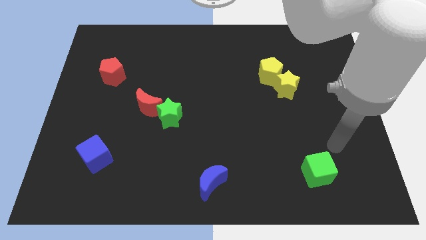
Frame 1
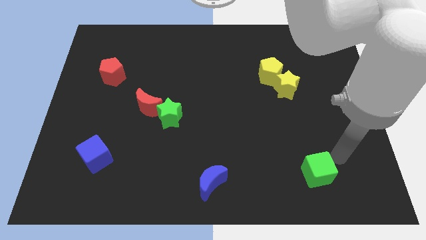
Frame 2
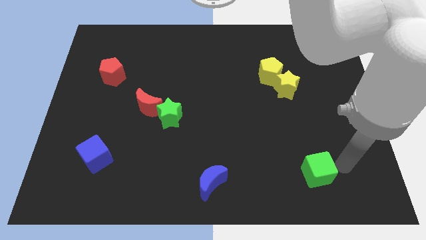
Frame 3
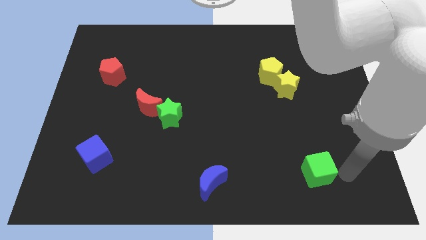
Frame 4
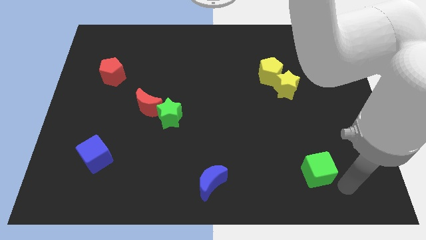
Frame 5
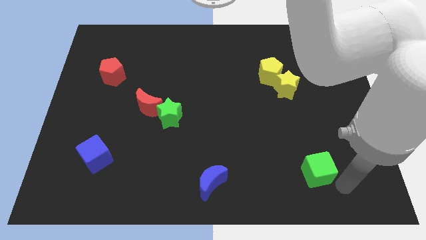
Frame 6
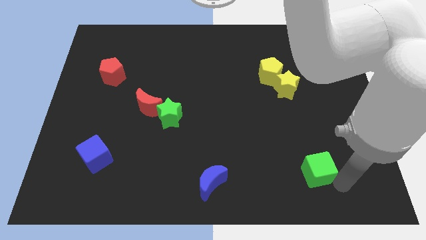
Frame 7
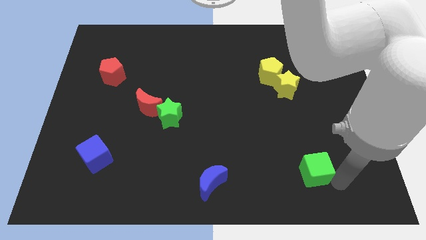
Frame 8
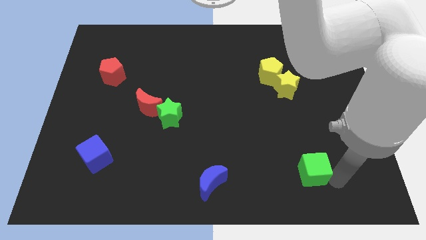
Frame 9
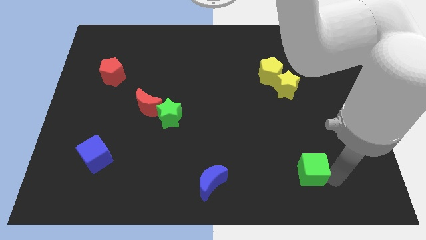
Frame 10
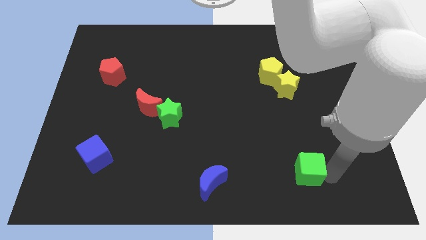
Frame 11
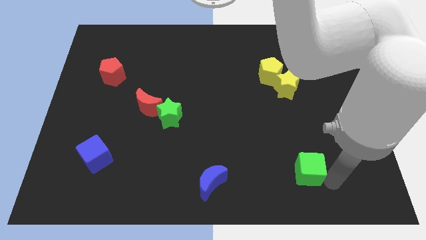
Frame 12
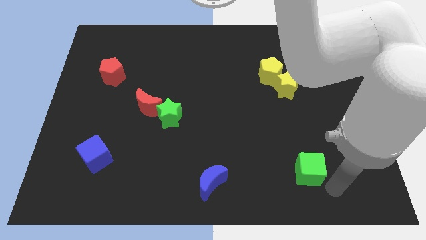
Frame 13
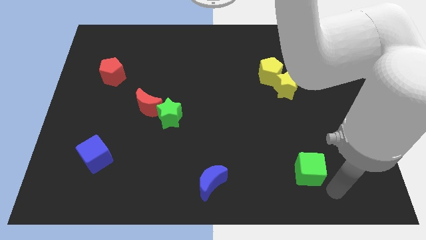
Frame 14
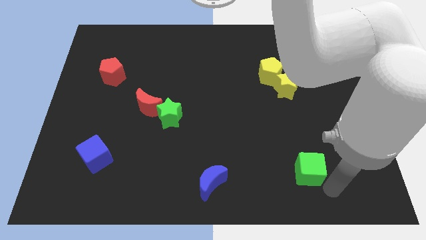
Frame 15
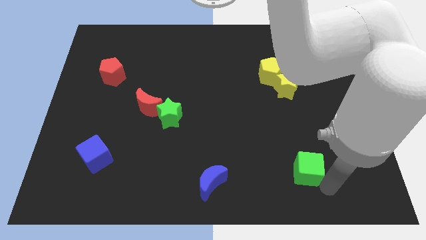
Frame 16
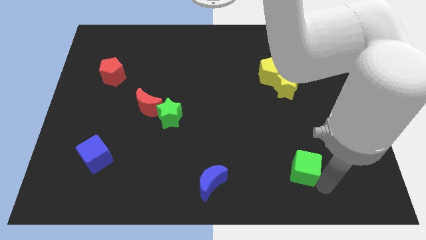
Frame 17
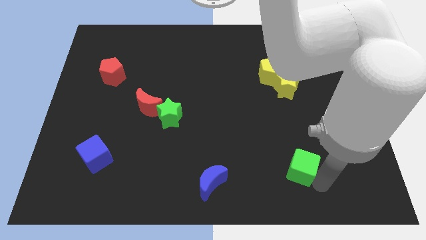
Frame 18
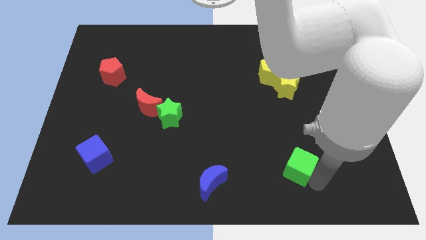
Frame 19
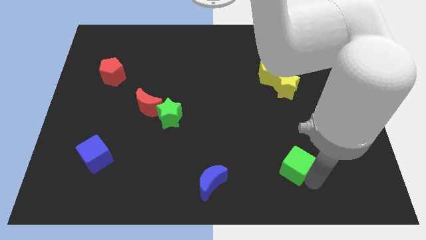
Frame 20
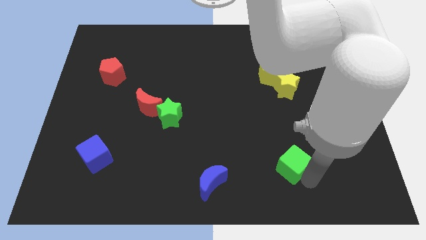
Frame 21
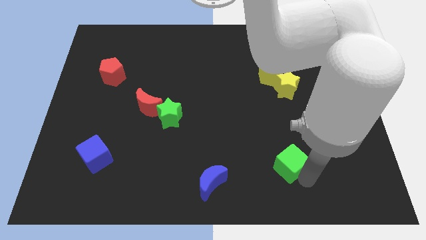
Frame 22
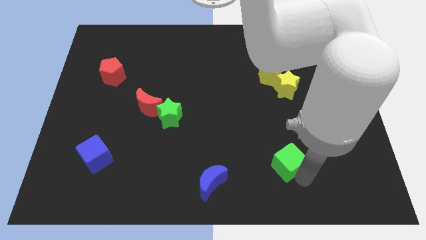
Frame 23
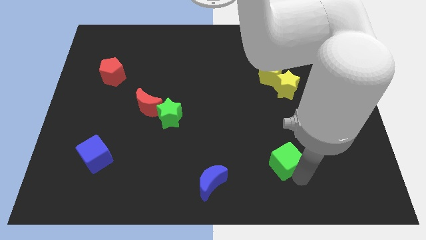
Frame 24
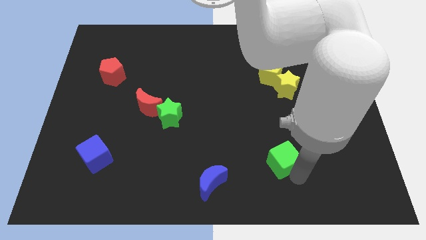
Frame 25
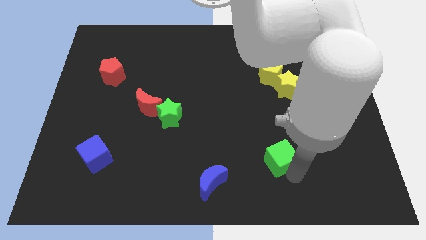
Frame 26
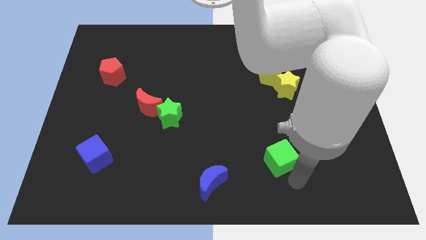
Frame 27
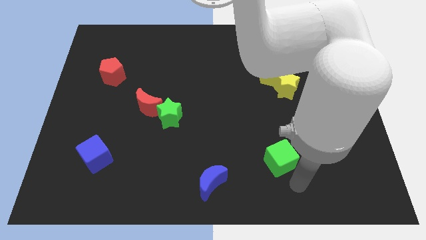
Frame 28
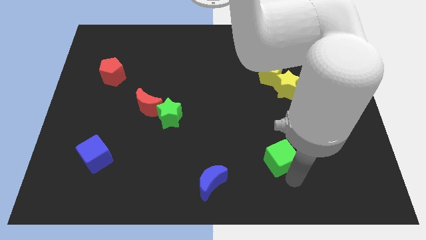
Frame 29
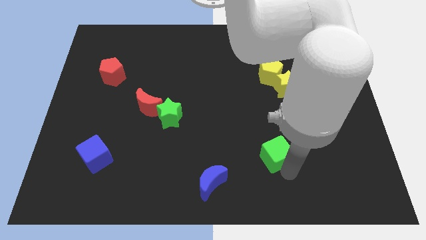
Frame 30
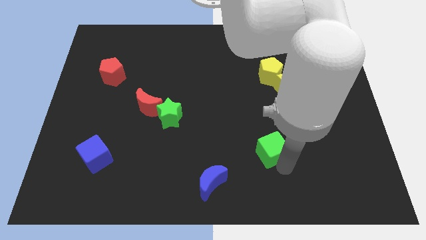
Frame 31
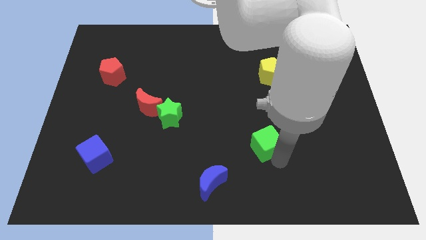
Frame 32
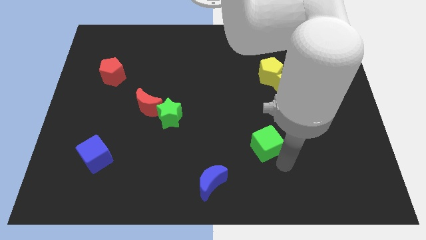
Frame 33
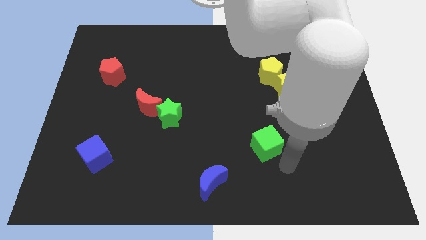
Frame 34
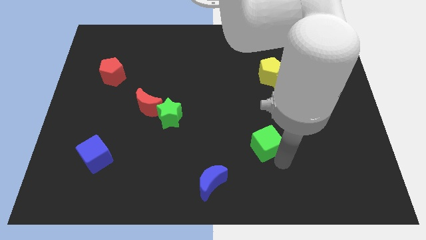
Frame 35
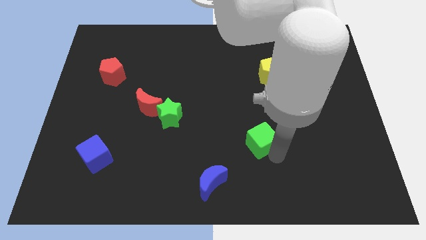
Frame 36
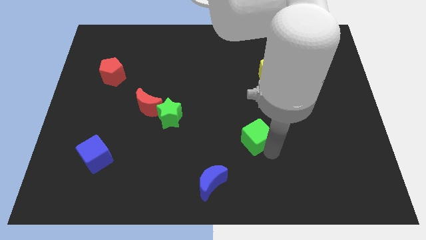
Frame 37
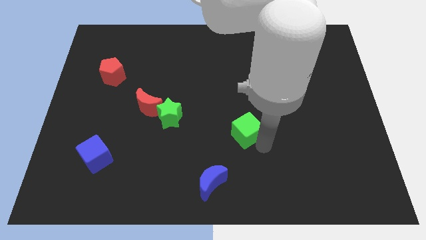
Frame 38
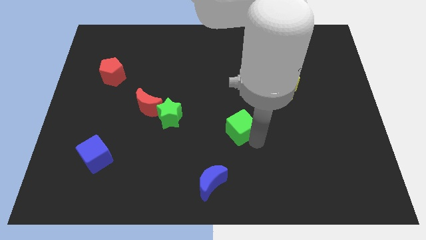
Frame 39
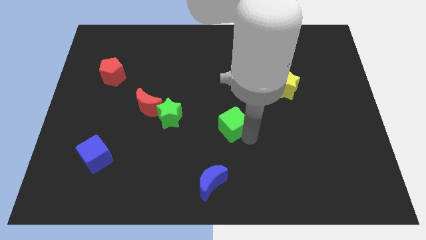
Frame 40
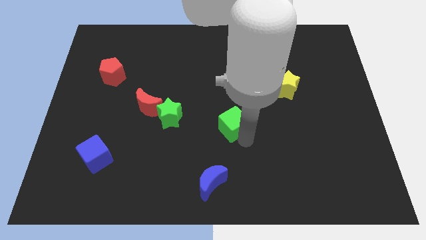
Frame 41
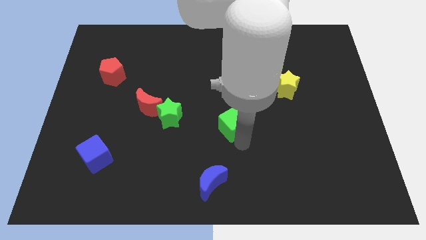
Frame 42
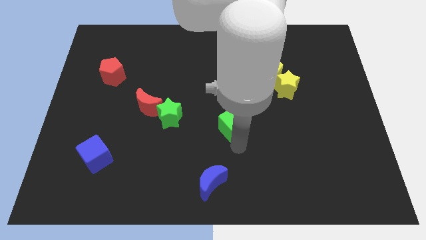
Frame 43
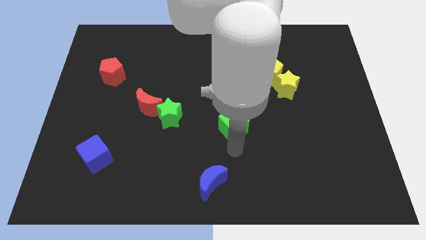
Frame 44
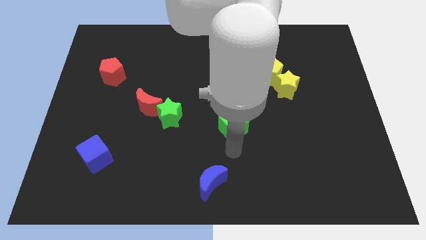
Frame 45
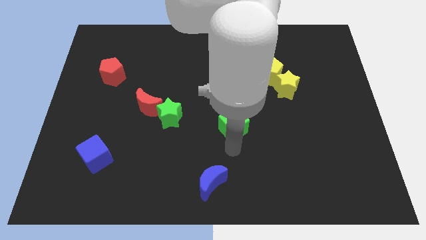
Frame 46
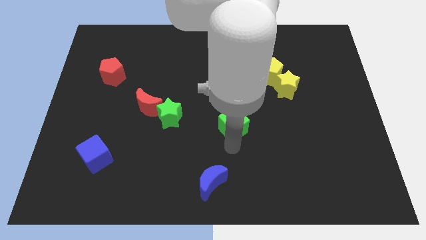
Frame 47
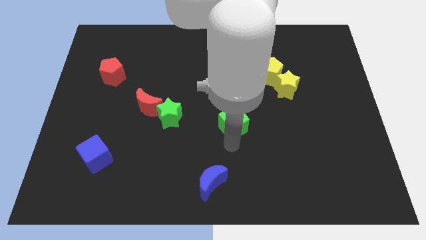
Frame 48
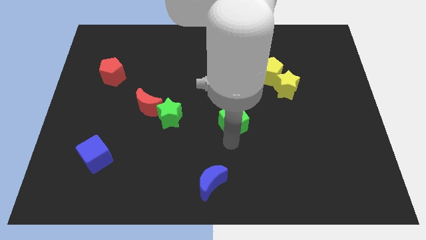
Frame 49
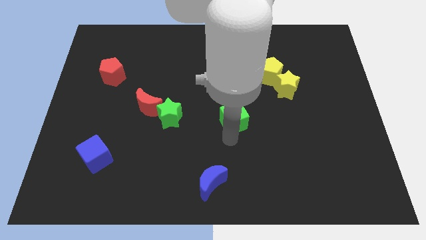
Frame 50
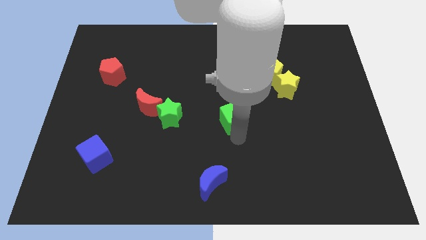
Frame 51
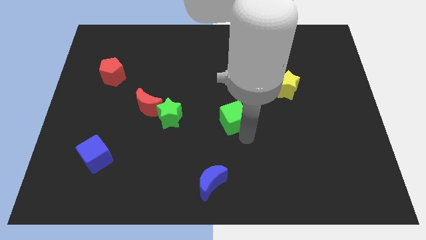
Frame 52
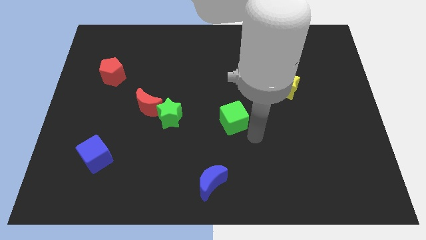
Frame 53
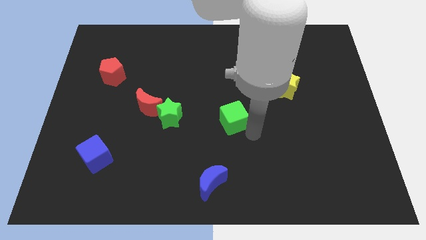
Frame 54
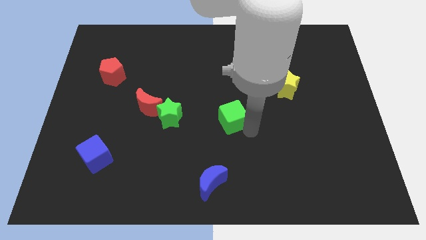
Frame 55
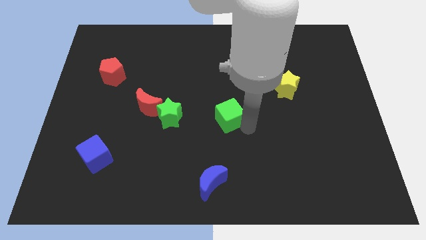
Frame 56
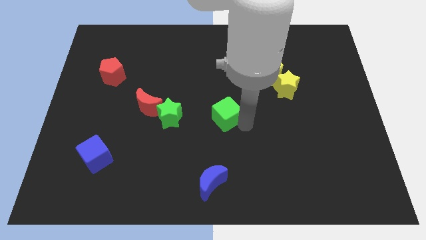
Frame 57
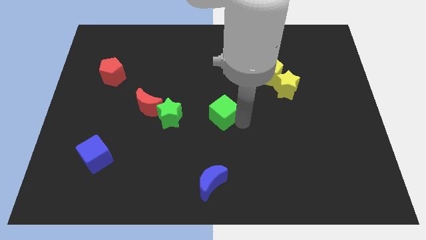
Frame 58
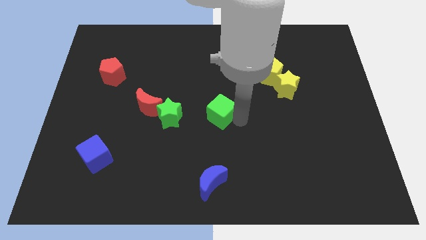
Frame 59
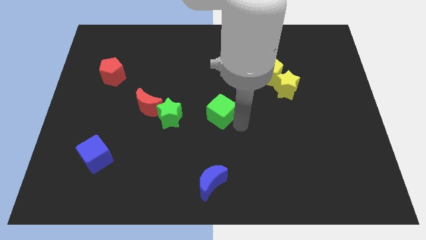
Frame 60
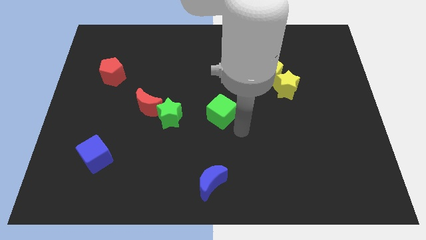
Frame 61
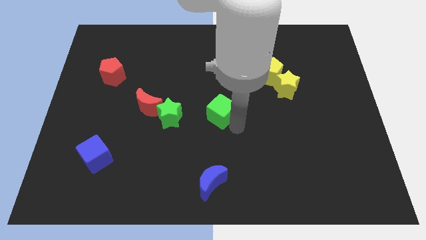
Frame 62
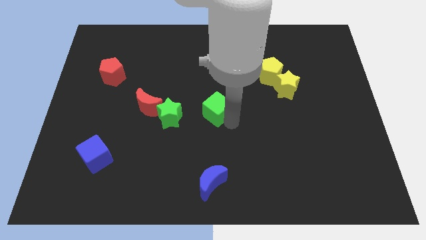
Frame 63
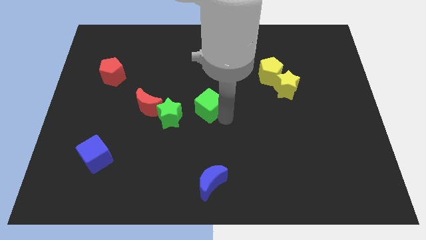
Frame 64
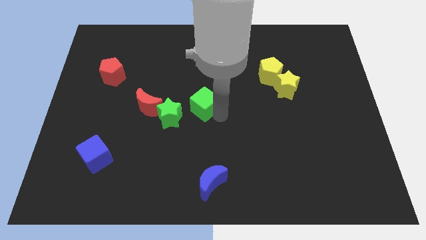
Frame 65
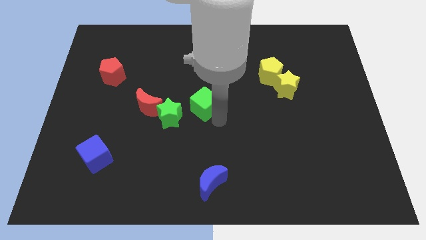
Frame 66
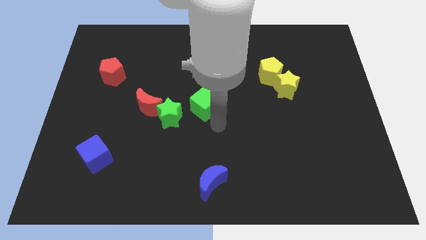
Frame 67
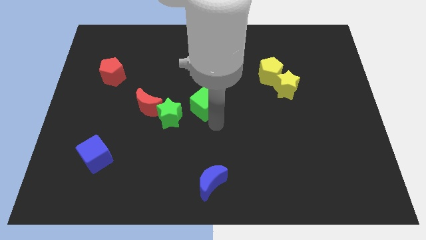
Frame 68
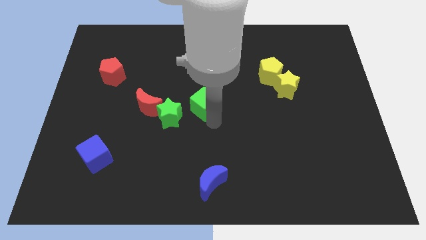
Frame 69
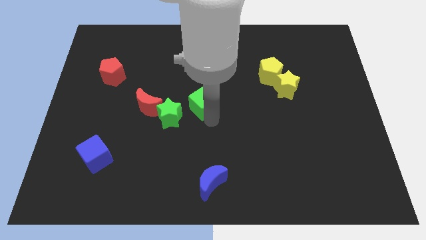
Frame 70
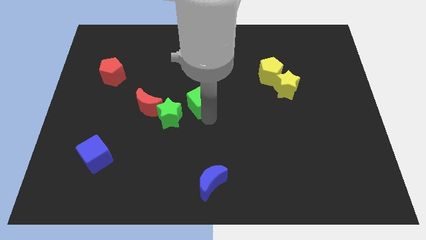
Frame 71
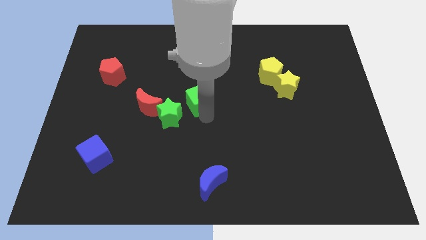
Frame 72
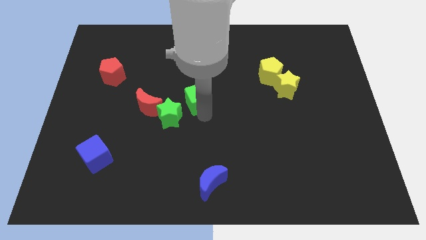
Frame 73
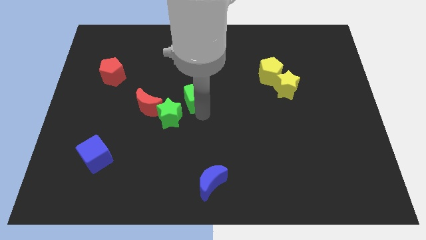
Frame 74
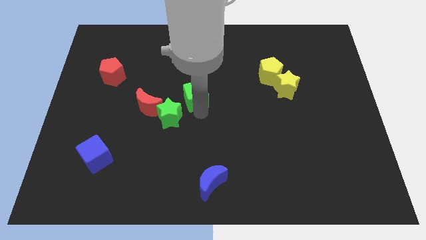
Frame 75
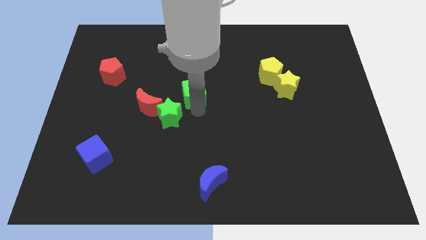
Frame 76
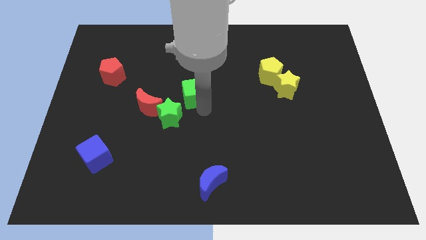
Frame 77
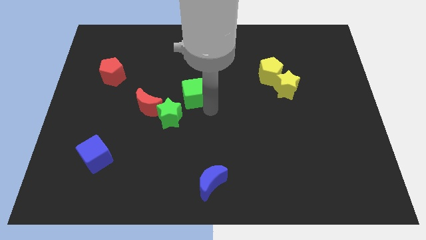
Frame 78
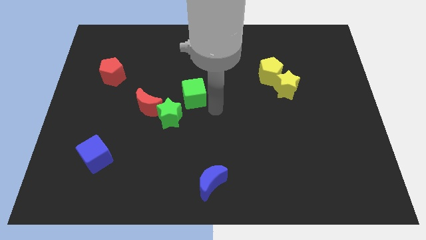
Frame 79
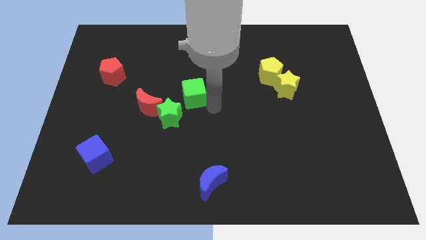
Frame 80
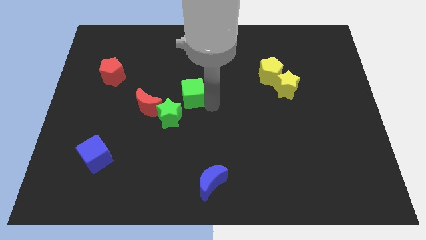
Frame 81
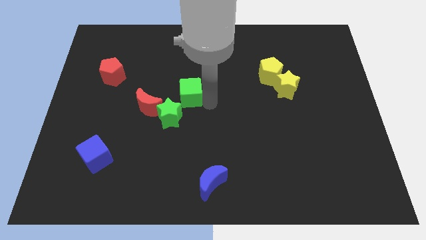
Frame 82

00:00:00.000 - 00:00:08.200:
put the green cube to the top of the green star
